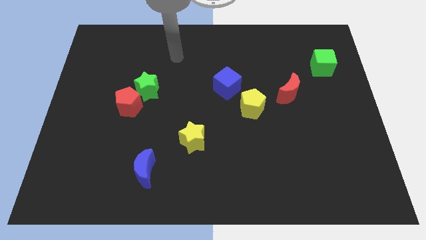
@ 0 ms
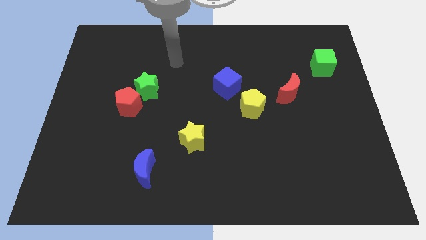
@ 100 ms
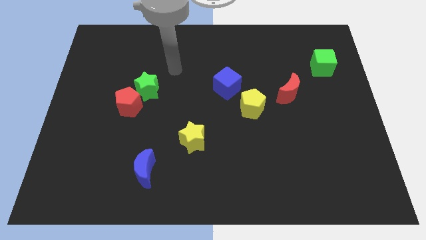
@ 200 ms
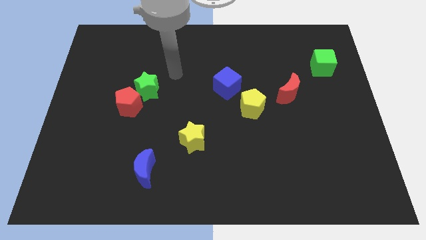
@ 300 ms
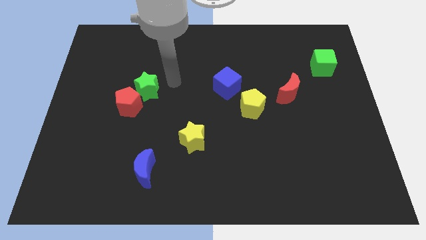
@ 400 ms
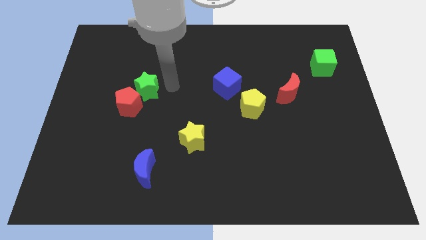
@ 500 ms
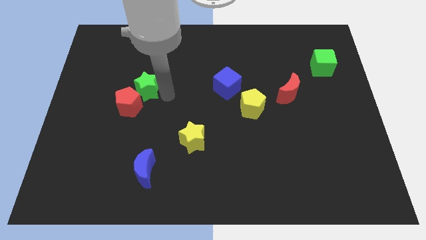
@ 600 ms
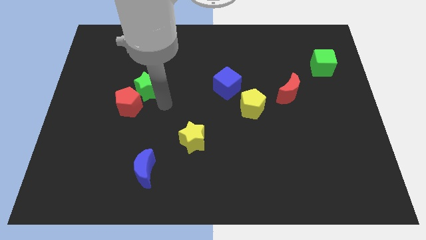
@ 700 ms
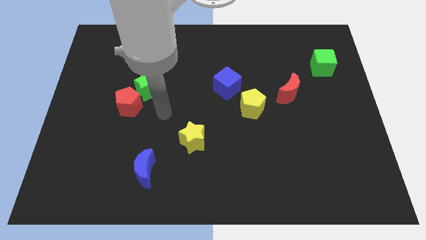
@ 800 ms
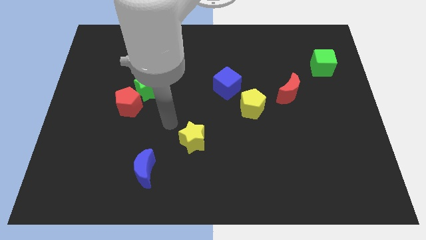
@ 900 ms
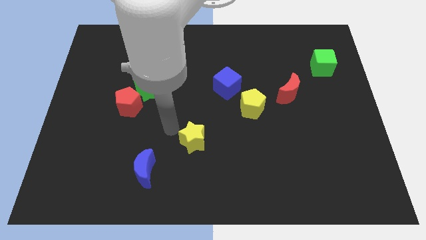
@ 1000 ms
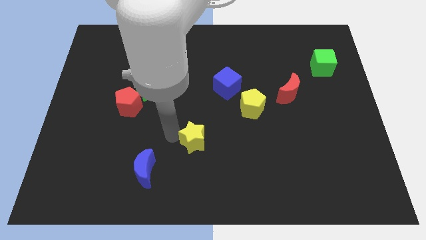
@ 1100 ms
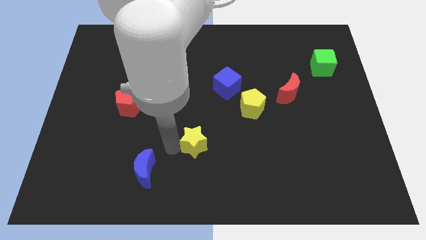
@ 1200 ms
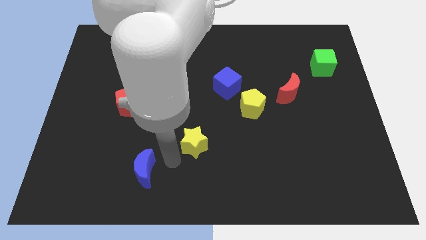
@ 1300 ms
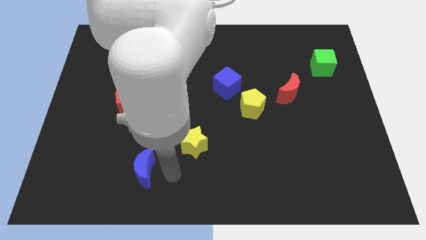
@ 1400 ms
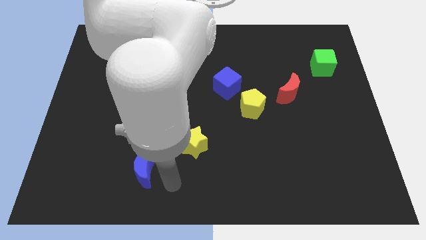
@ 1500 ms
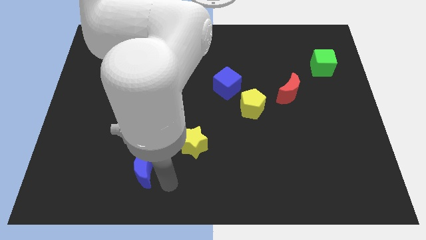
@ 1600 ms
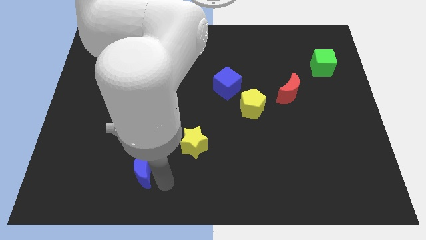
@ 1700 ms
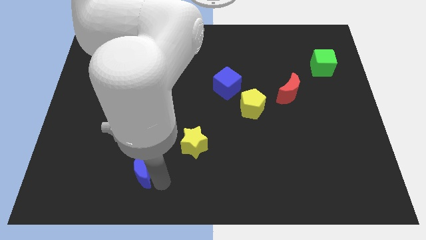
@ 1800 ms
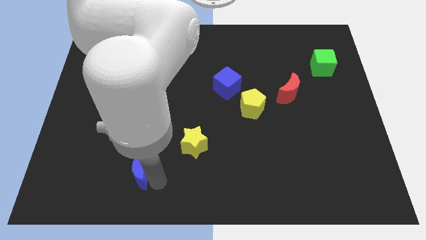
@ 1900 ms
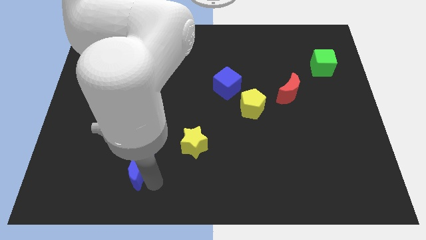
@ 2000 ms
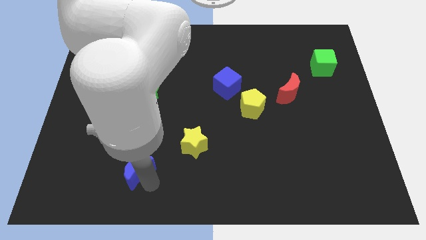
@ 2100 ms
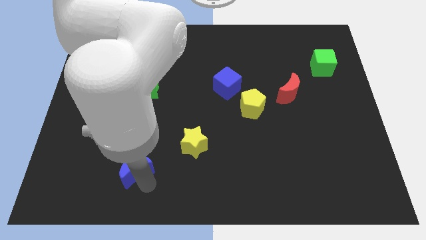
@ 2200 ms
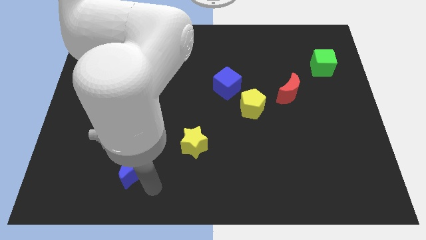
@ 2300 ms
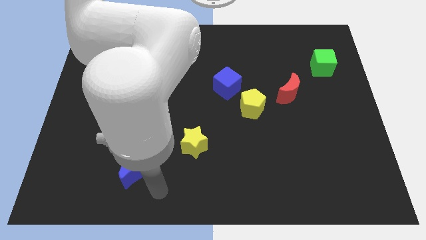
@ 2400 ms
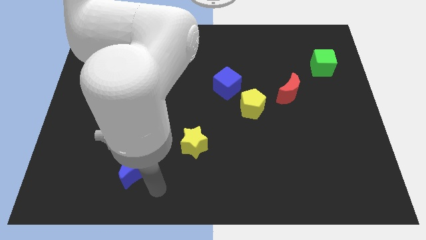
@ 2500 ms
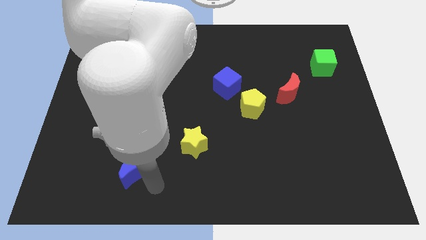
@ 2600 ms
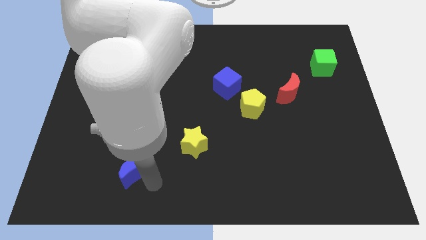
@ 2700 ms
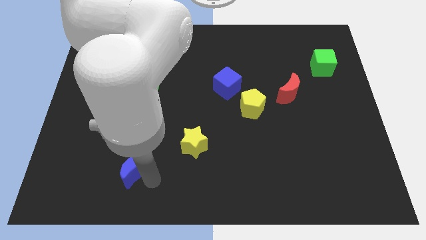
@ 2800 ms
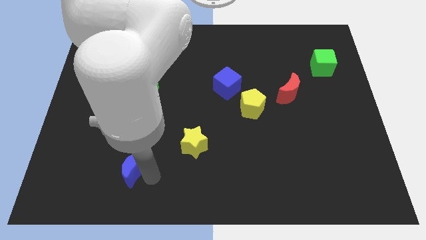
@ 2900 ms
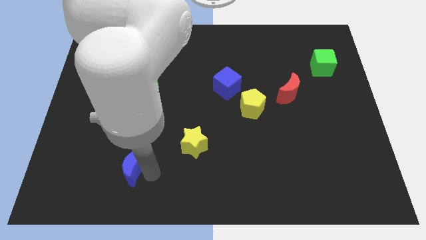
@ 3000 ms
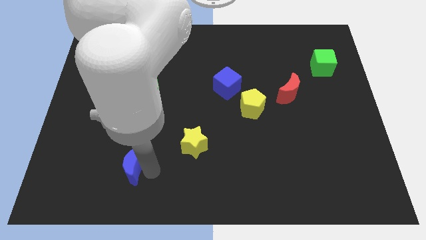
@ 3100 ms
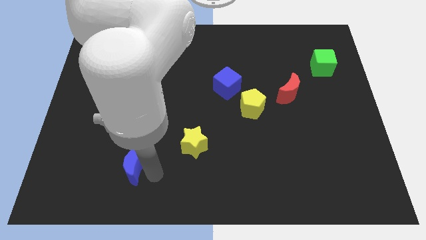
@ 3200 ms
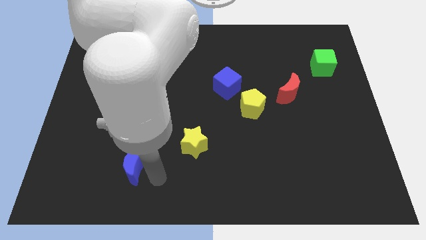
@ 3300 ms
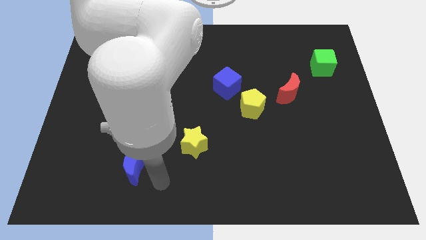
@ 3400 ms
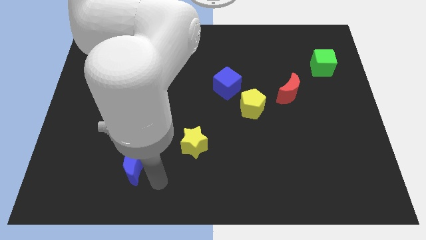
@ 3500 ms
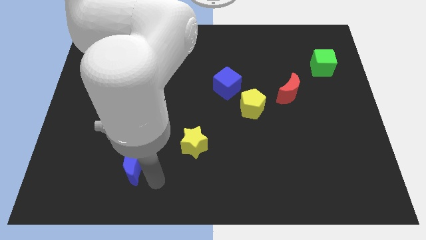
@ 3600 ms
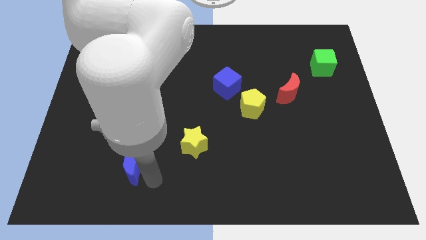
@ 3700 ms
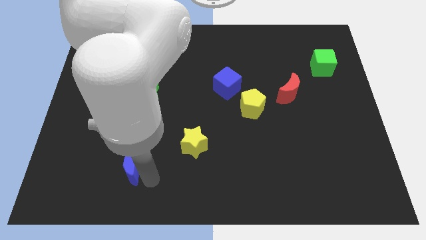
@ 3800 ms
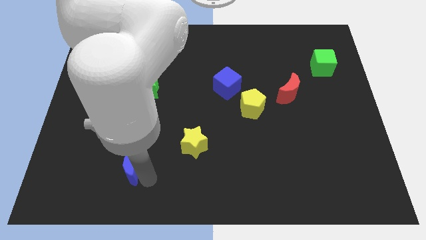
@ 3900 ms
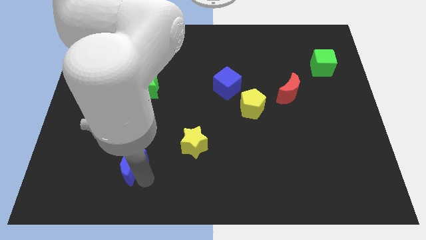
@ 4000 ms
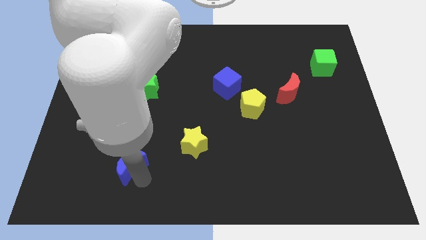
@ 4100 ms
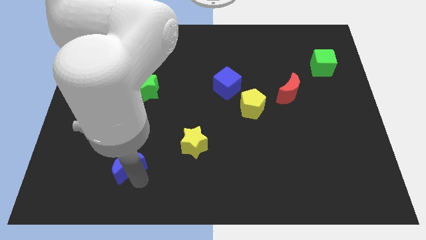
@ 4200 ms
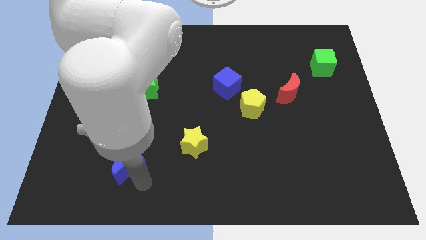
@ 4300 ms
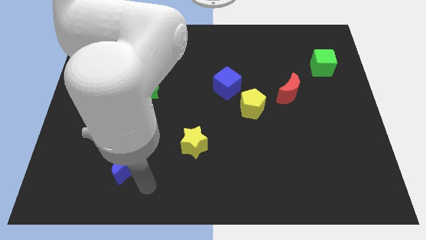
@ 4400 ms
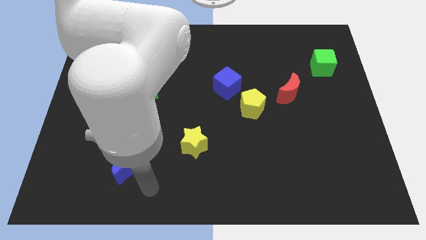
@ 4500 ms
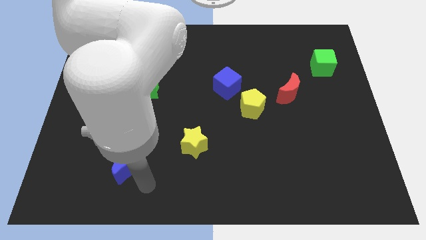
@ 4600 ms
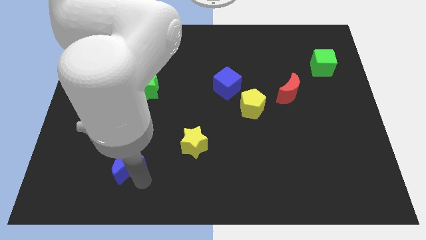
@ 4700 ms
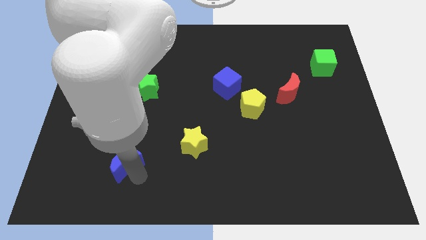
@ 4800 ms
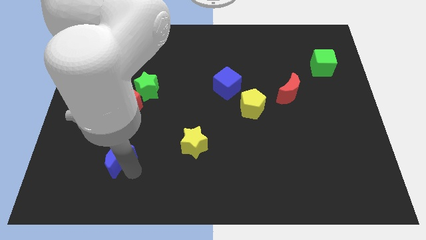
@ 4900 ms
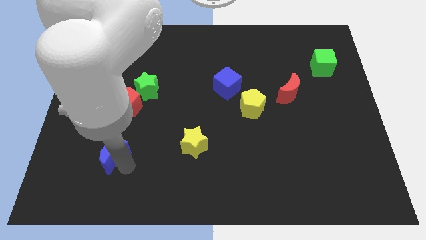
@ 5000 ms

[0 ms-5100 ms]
push the blue moon up and then to the left slightly

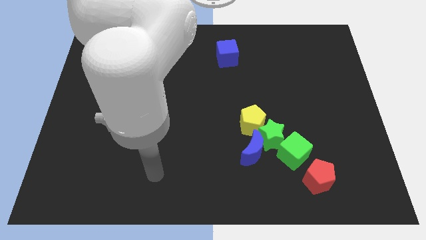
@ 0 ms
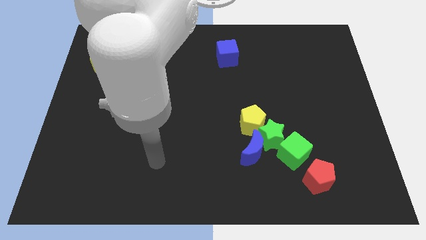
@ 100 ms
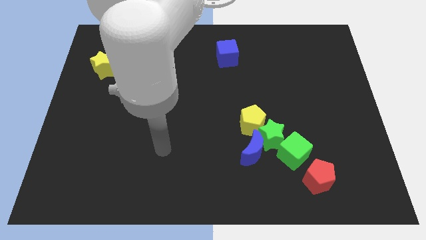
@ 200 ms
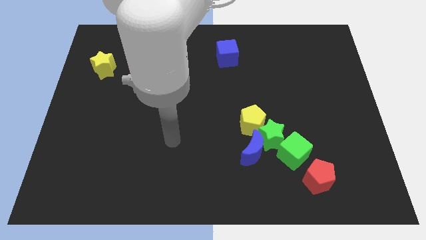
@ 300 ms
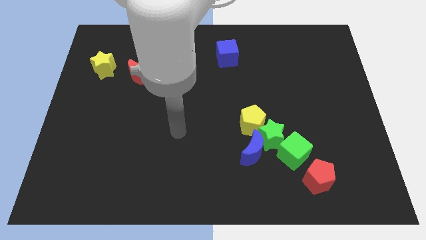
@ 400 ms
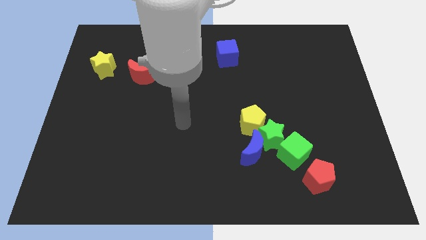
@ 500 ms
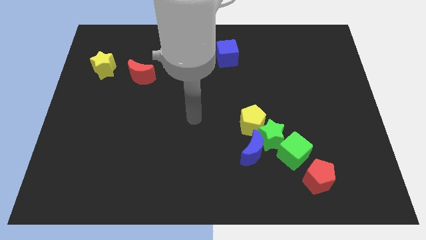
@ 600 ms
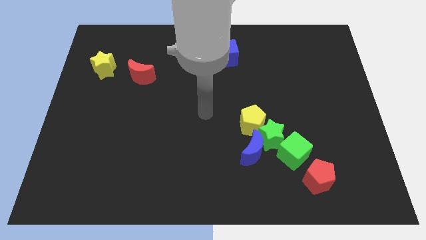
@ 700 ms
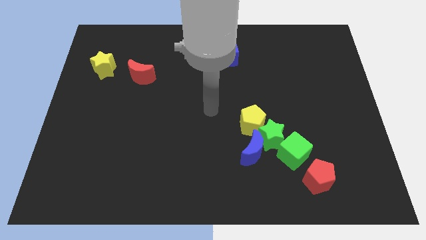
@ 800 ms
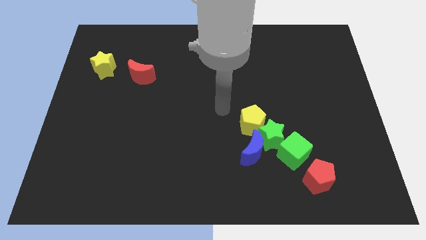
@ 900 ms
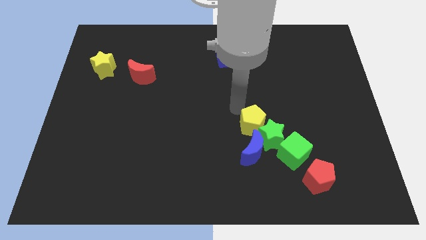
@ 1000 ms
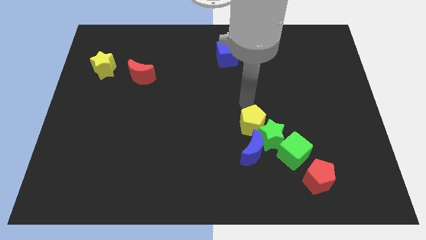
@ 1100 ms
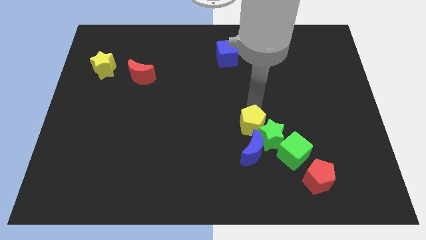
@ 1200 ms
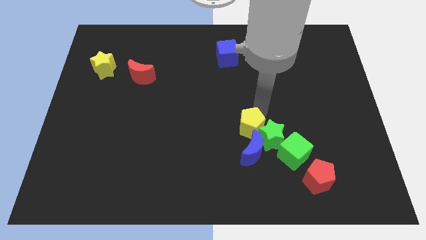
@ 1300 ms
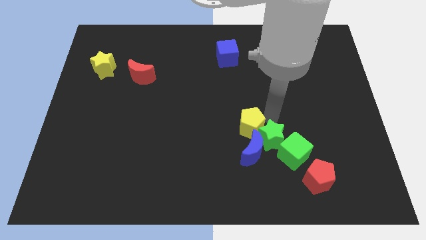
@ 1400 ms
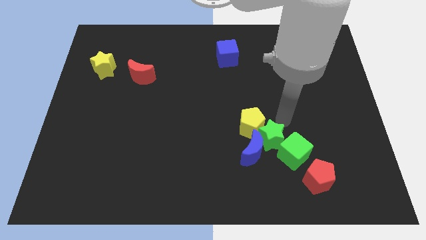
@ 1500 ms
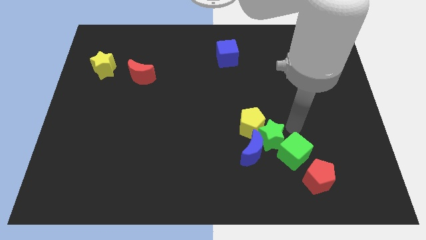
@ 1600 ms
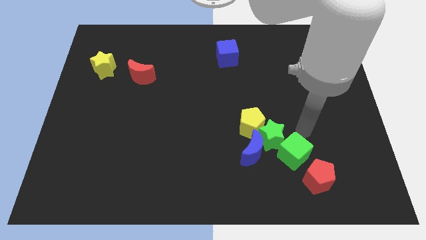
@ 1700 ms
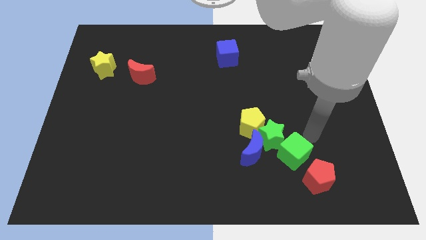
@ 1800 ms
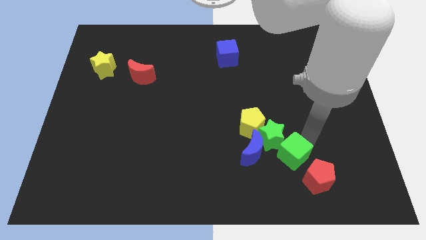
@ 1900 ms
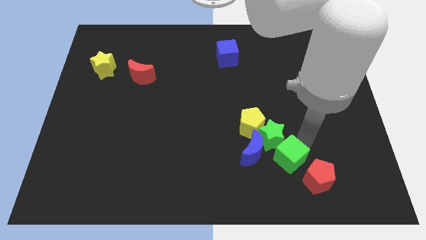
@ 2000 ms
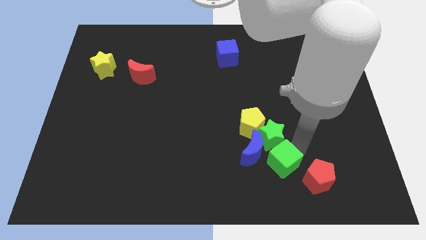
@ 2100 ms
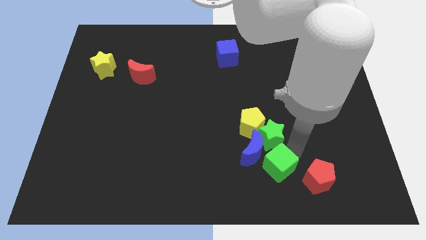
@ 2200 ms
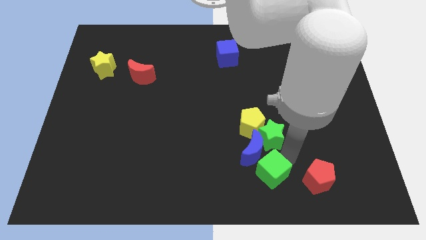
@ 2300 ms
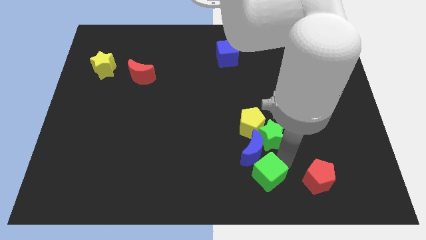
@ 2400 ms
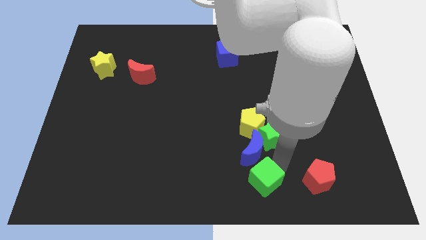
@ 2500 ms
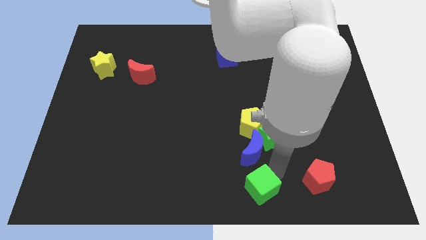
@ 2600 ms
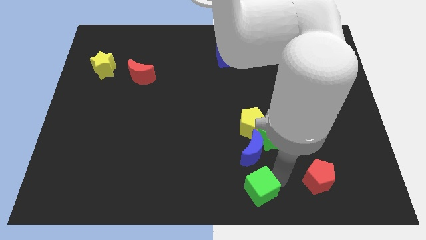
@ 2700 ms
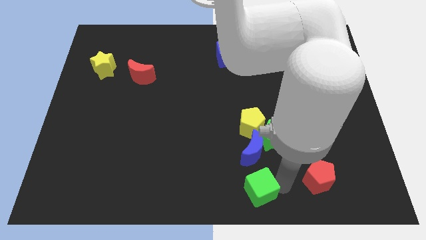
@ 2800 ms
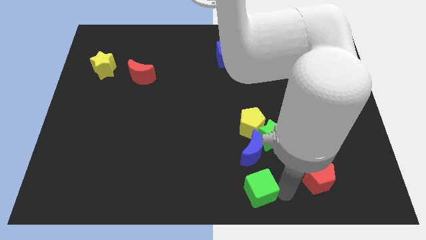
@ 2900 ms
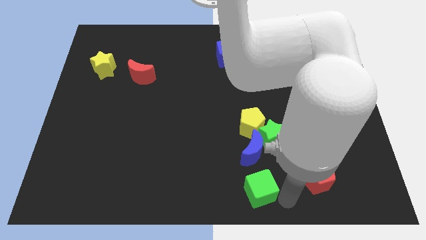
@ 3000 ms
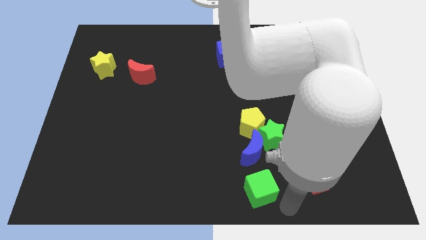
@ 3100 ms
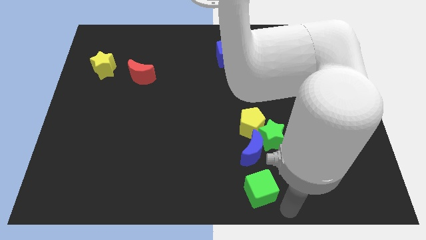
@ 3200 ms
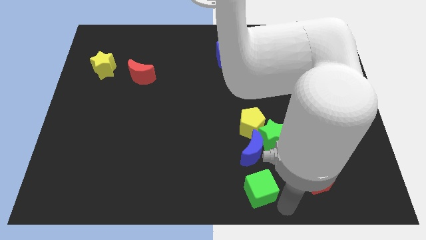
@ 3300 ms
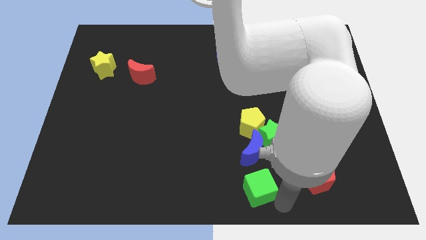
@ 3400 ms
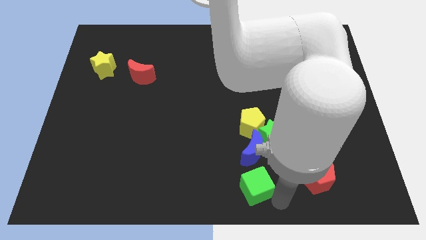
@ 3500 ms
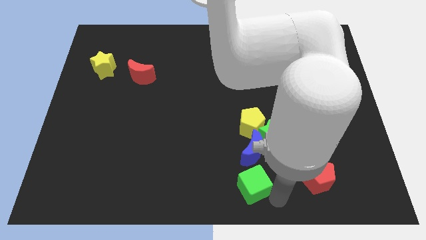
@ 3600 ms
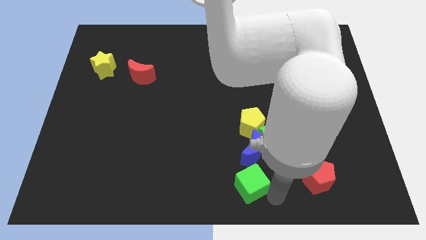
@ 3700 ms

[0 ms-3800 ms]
slide the green cube somewhat to the left
